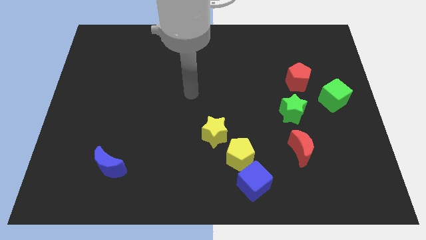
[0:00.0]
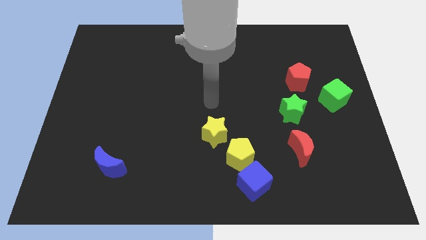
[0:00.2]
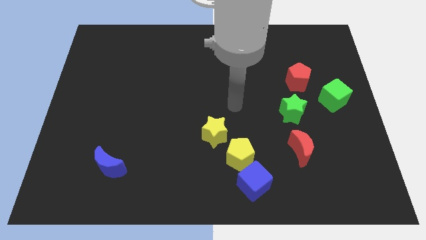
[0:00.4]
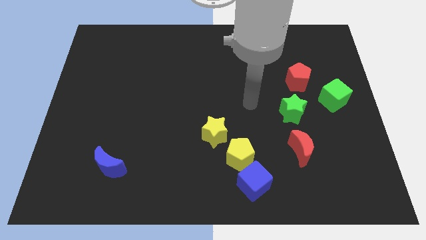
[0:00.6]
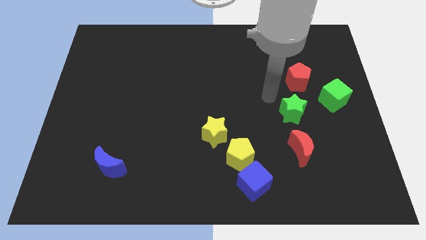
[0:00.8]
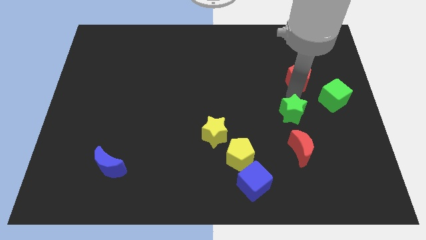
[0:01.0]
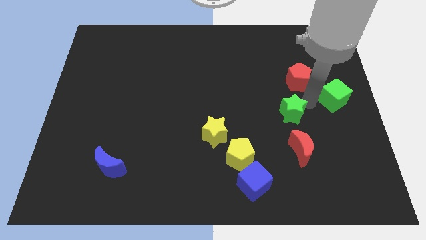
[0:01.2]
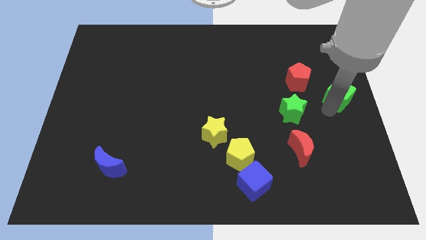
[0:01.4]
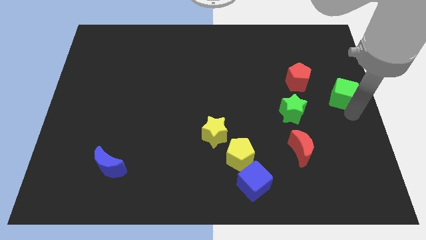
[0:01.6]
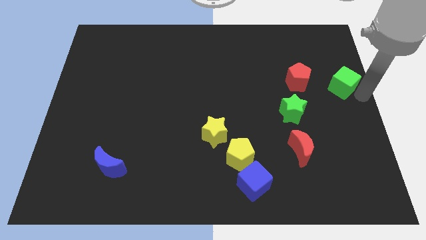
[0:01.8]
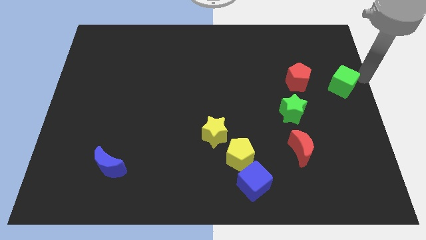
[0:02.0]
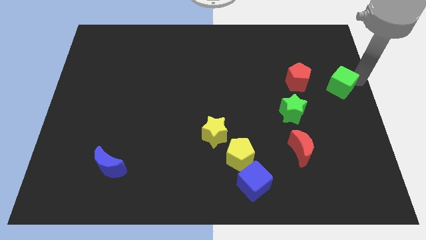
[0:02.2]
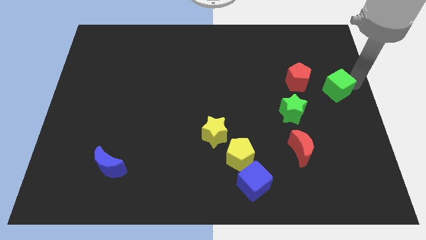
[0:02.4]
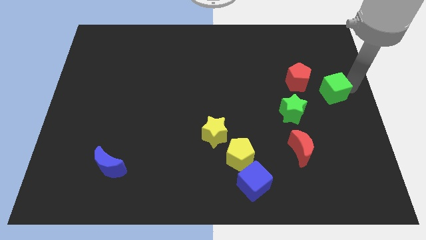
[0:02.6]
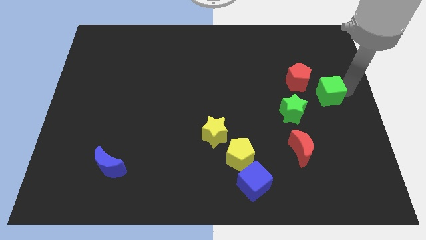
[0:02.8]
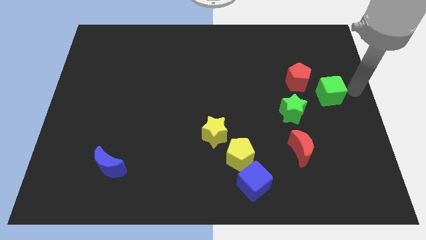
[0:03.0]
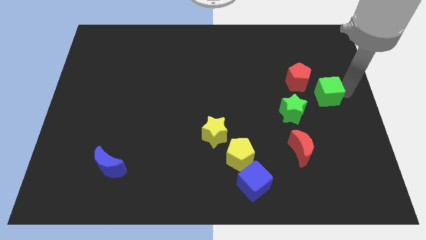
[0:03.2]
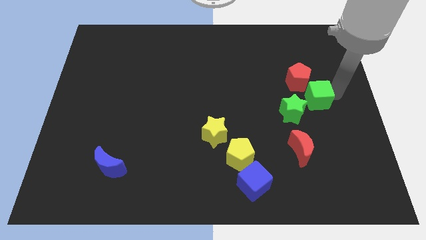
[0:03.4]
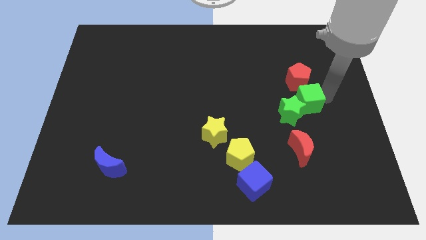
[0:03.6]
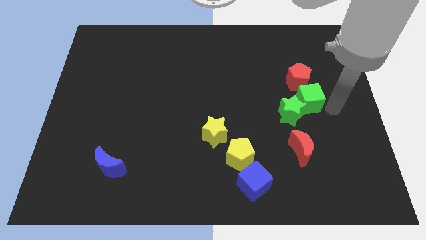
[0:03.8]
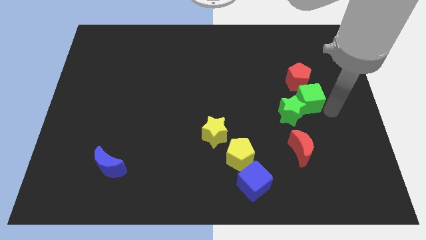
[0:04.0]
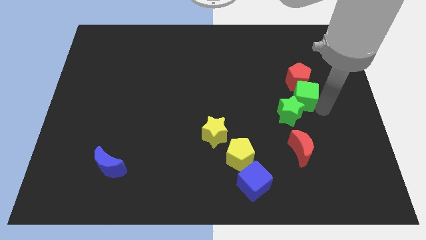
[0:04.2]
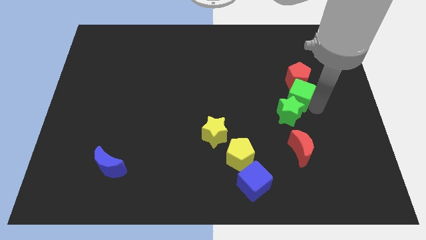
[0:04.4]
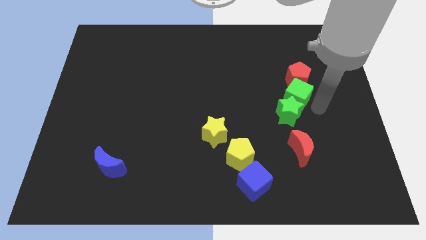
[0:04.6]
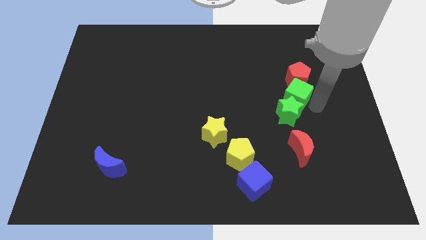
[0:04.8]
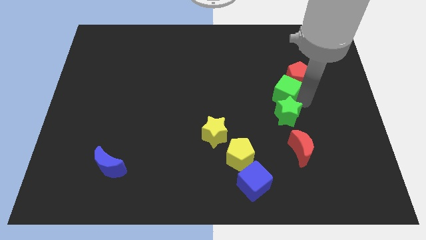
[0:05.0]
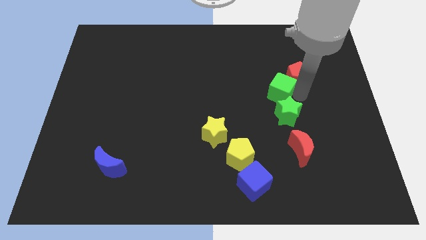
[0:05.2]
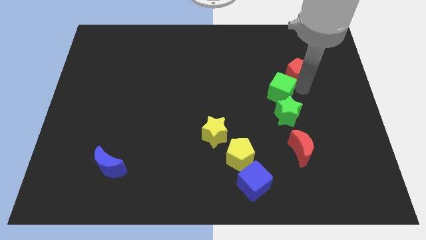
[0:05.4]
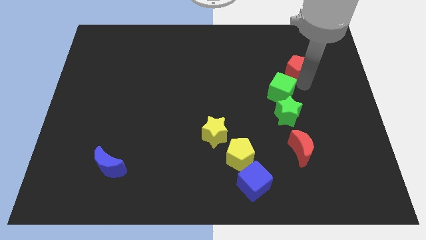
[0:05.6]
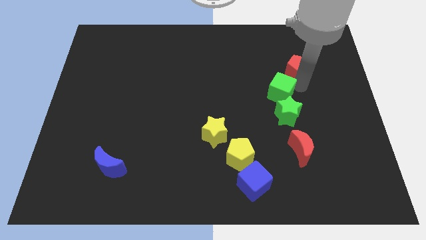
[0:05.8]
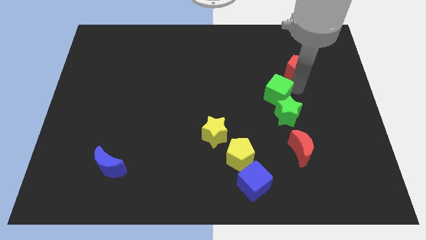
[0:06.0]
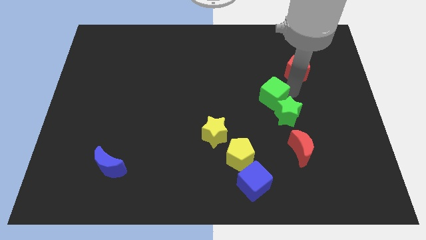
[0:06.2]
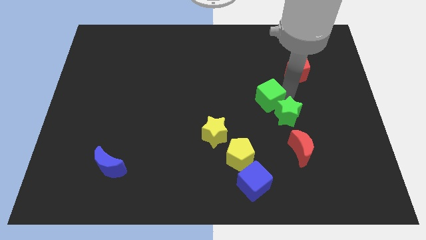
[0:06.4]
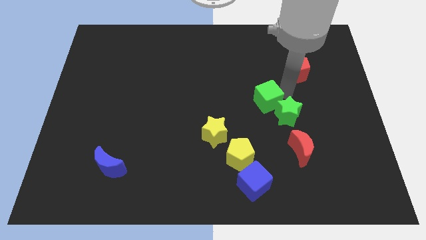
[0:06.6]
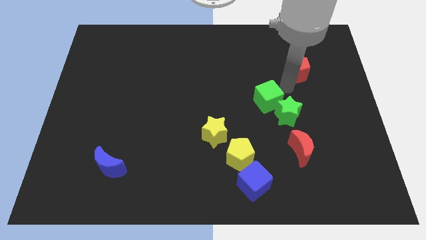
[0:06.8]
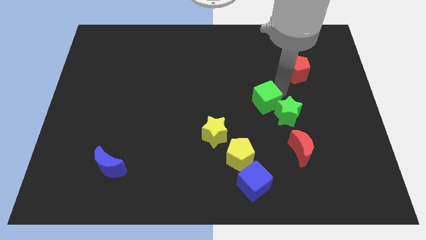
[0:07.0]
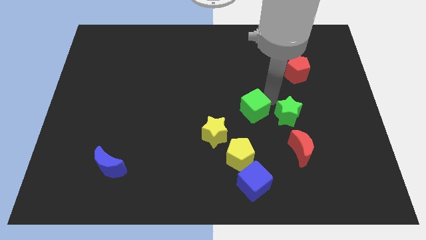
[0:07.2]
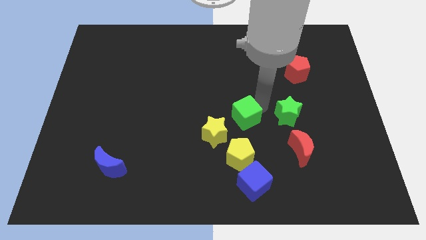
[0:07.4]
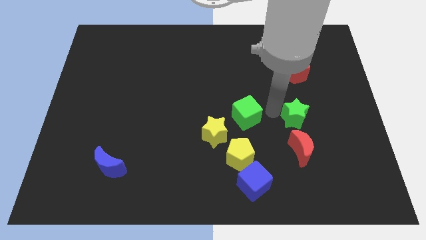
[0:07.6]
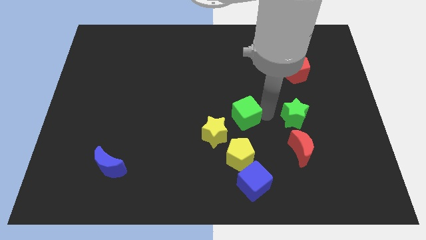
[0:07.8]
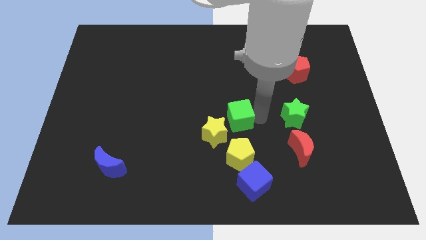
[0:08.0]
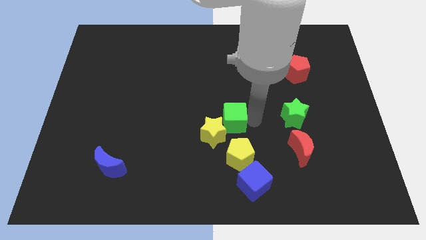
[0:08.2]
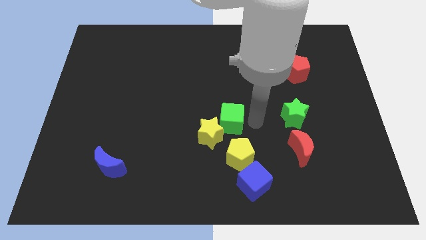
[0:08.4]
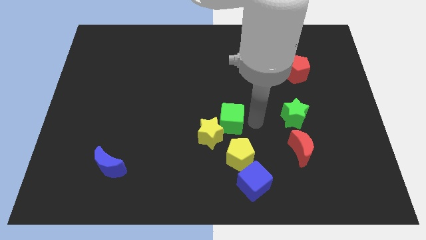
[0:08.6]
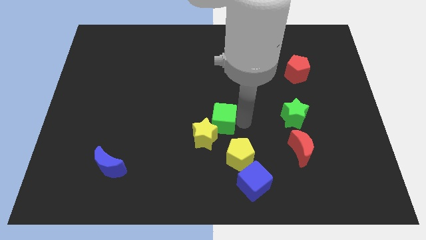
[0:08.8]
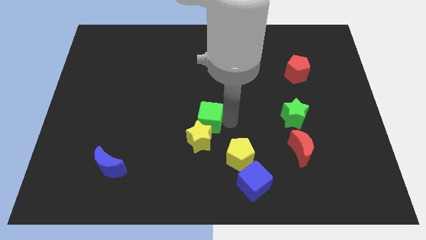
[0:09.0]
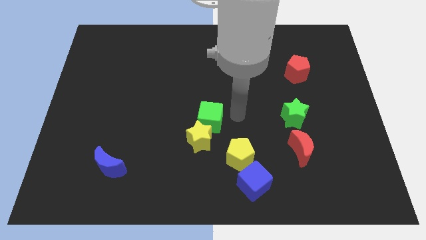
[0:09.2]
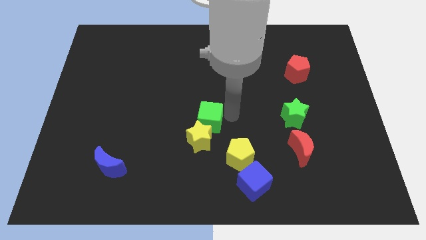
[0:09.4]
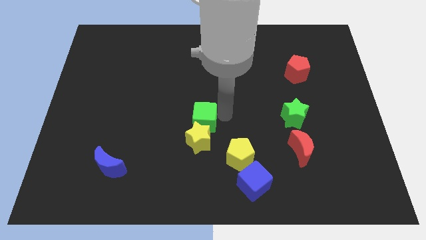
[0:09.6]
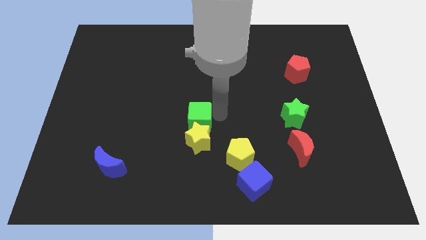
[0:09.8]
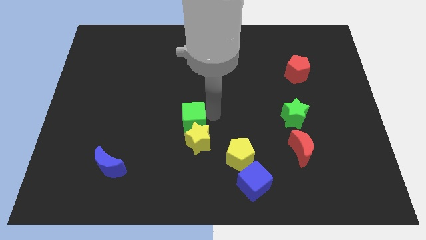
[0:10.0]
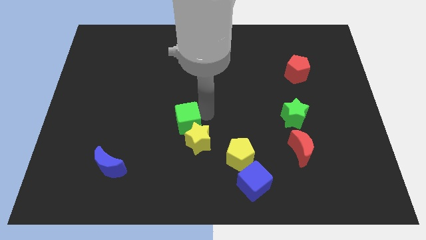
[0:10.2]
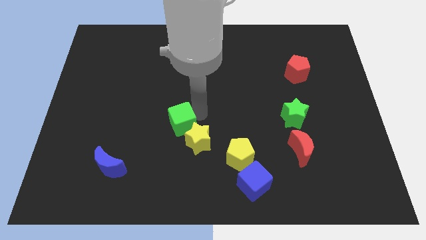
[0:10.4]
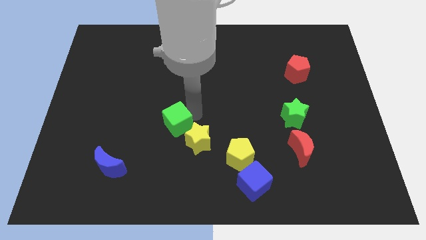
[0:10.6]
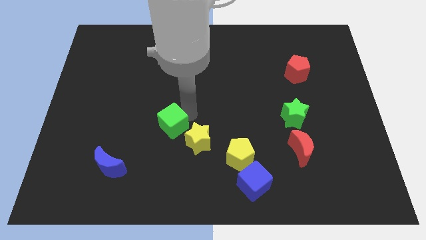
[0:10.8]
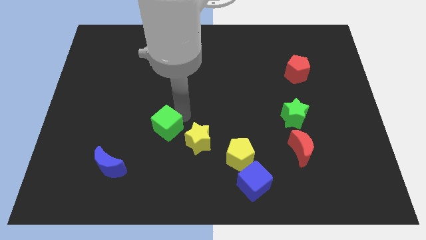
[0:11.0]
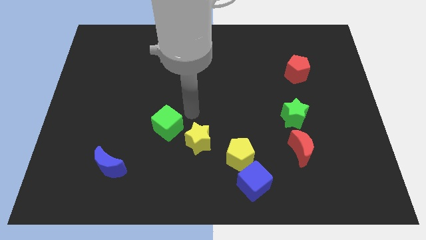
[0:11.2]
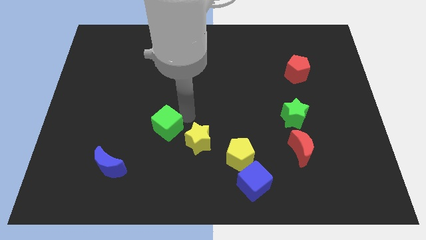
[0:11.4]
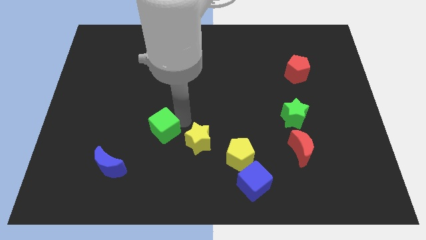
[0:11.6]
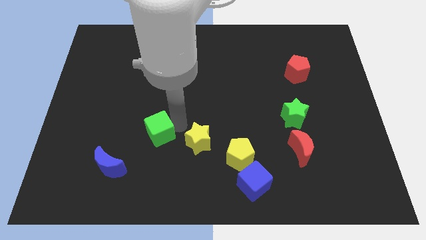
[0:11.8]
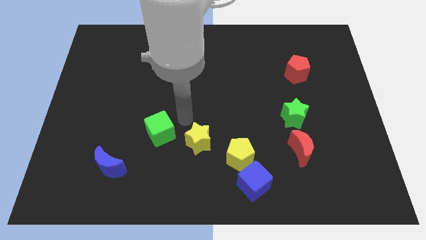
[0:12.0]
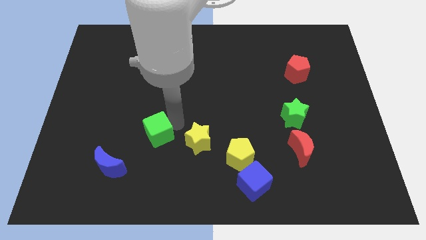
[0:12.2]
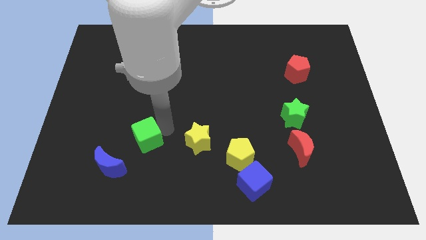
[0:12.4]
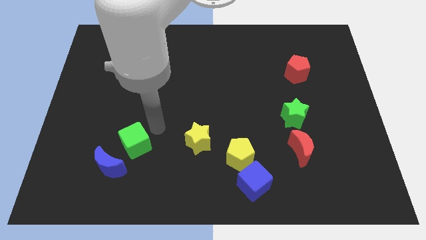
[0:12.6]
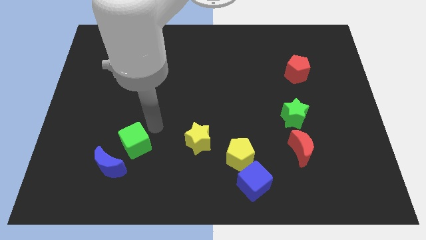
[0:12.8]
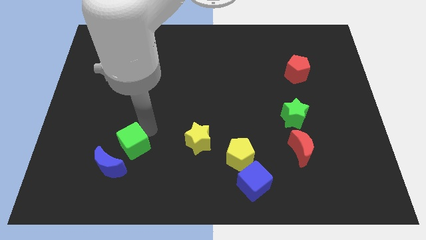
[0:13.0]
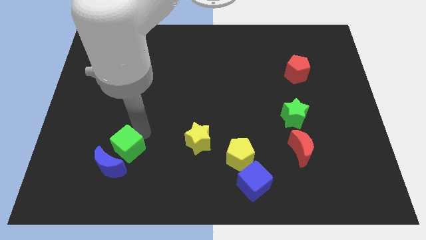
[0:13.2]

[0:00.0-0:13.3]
slide the green cube to the blue moon

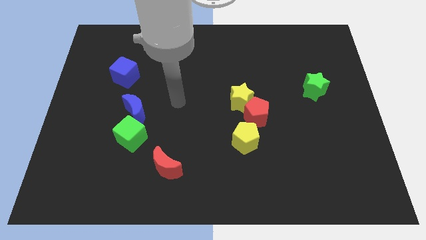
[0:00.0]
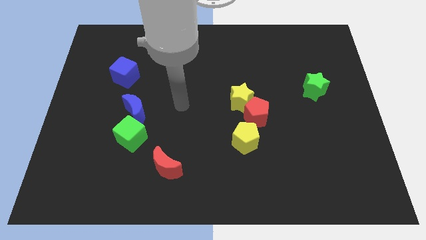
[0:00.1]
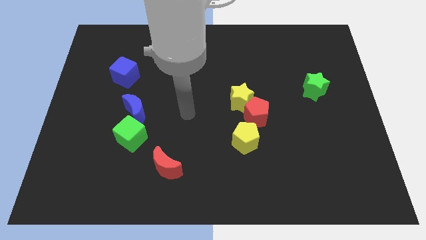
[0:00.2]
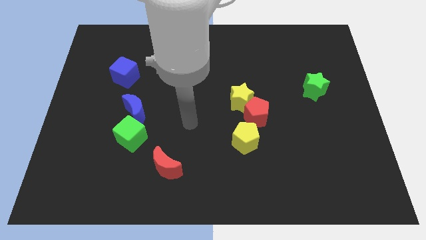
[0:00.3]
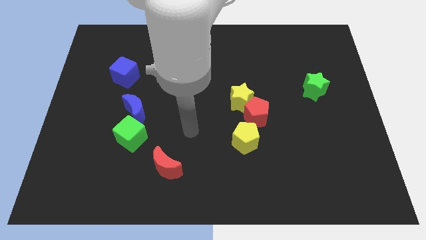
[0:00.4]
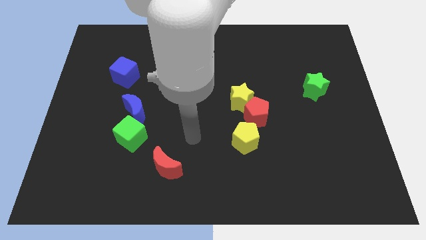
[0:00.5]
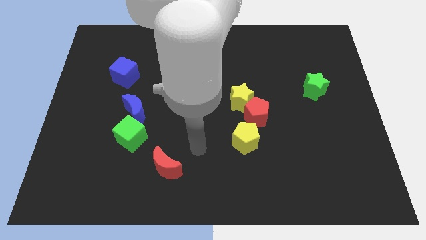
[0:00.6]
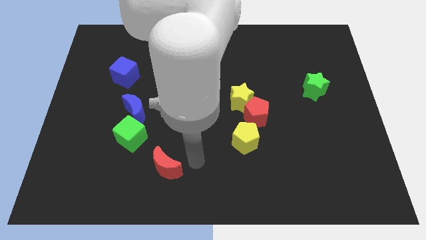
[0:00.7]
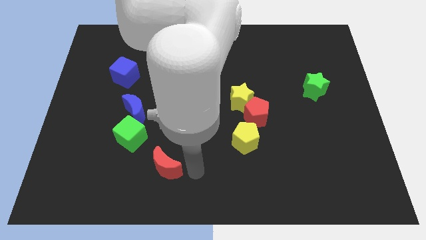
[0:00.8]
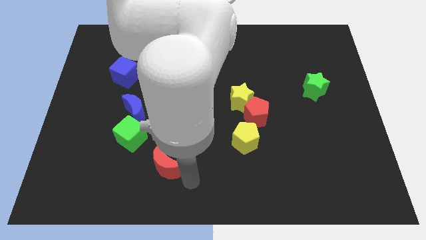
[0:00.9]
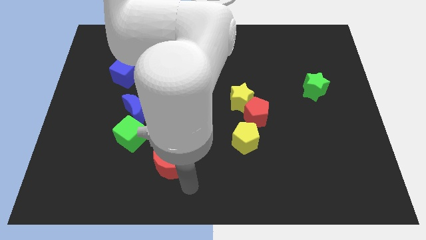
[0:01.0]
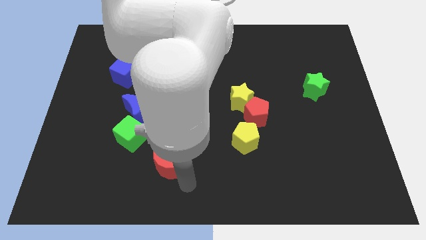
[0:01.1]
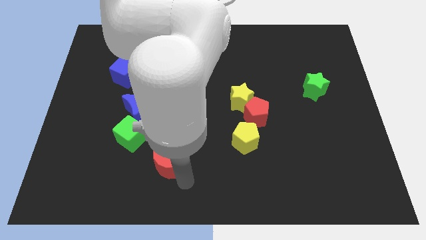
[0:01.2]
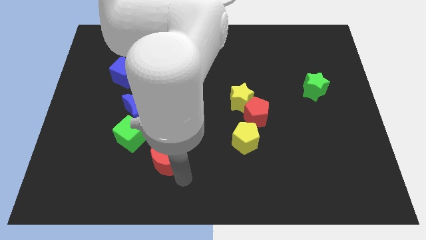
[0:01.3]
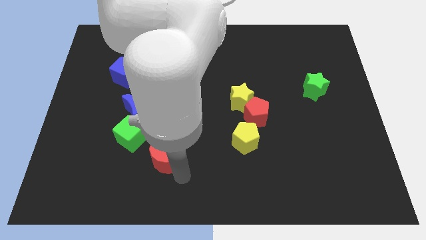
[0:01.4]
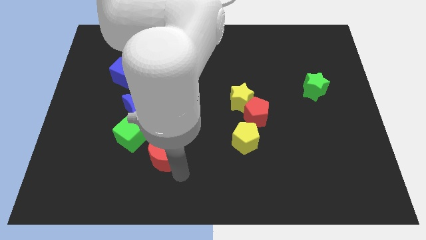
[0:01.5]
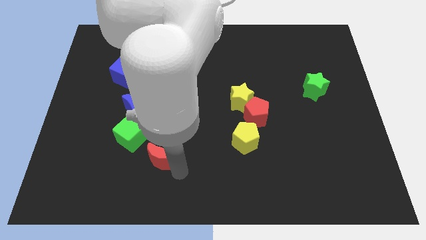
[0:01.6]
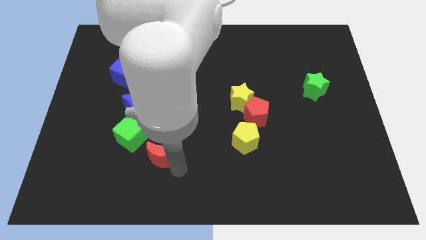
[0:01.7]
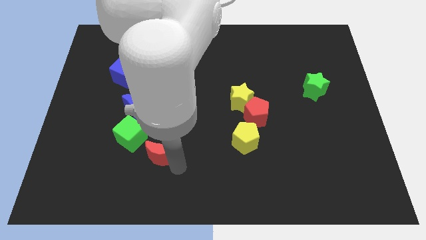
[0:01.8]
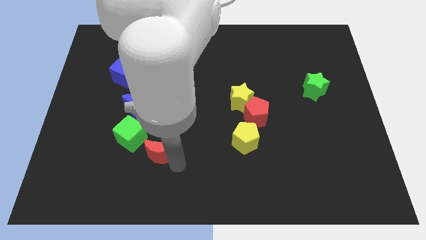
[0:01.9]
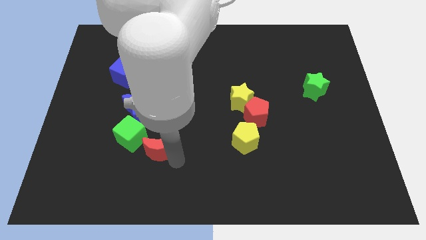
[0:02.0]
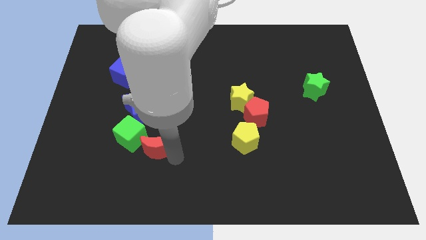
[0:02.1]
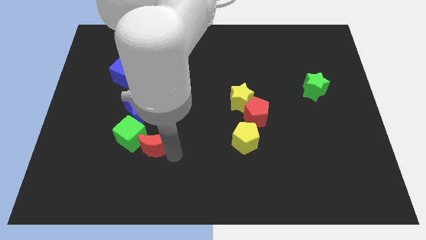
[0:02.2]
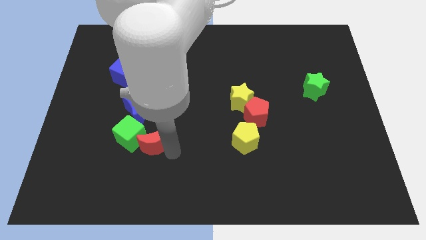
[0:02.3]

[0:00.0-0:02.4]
put the red moon to the green cube
